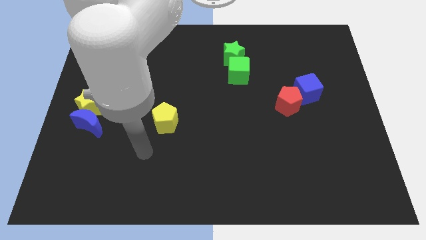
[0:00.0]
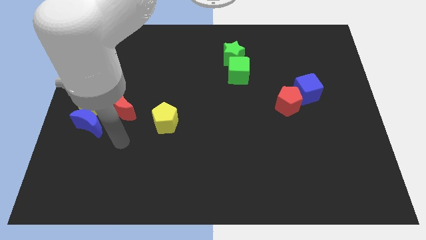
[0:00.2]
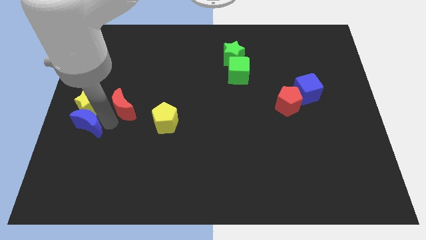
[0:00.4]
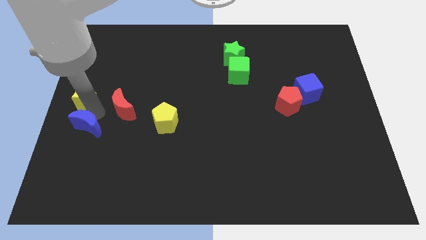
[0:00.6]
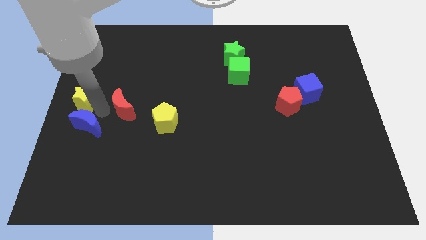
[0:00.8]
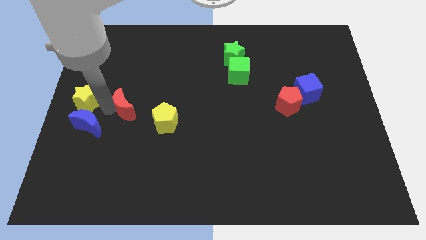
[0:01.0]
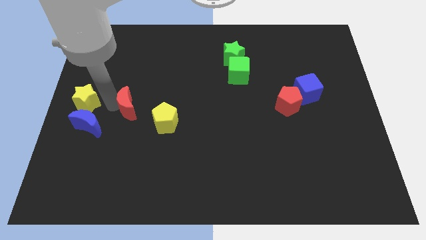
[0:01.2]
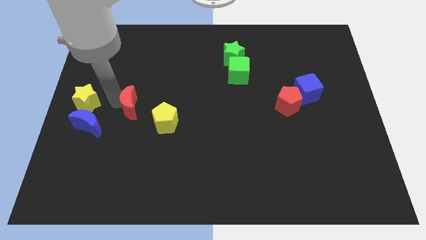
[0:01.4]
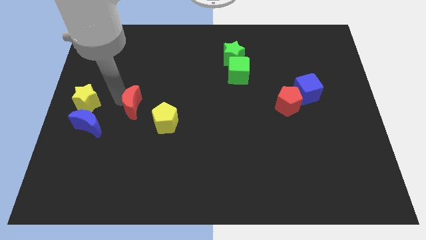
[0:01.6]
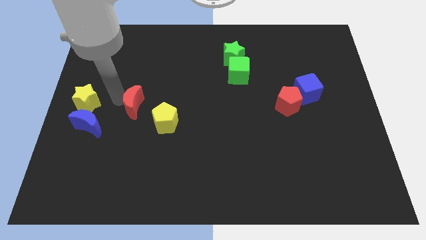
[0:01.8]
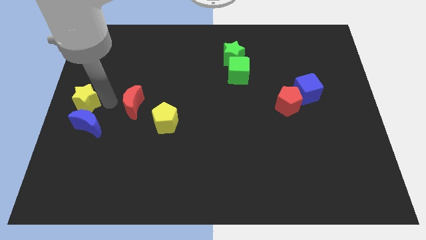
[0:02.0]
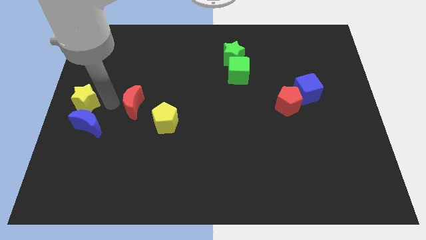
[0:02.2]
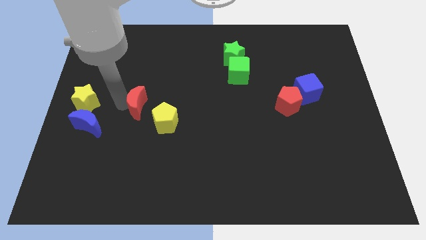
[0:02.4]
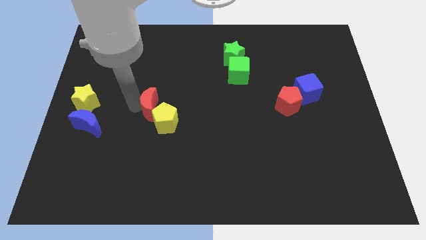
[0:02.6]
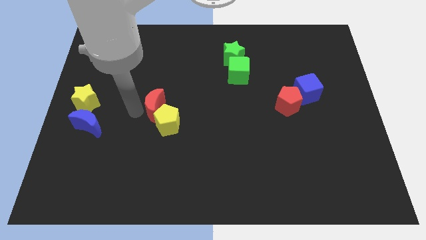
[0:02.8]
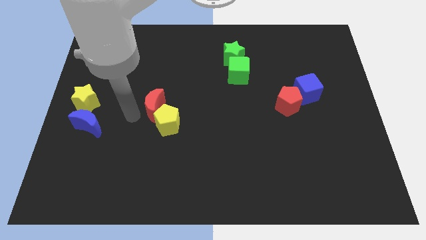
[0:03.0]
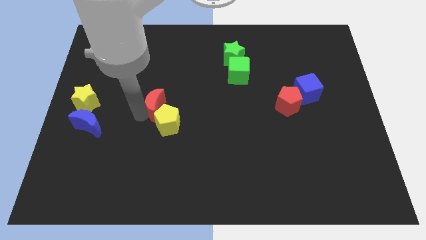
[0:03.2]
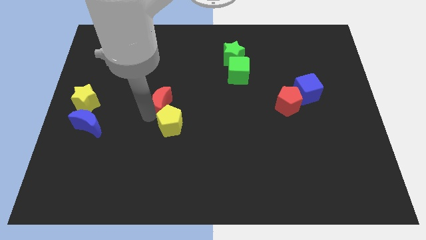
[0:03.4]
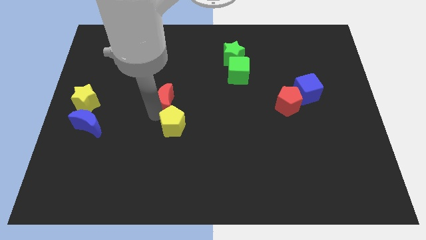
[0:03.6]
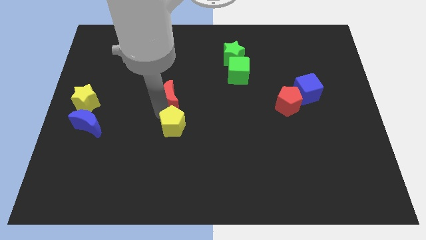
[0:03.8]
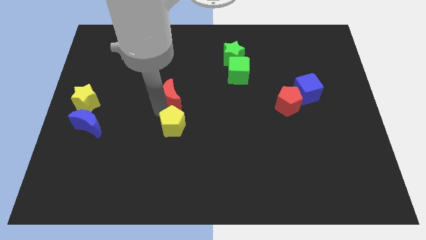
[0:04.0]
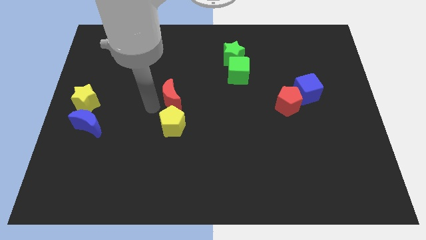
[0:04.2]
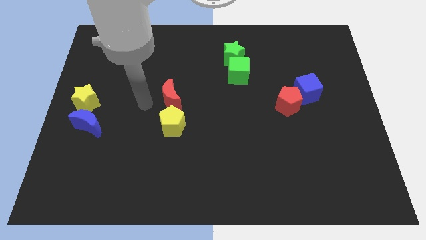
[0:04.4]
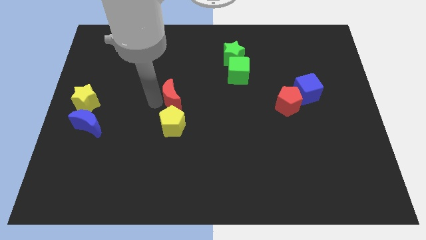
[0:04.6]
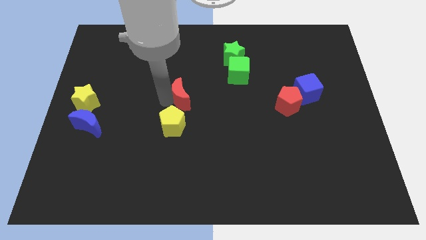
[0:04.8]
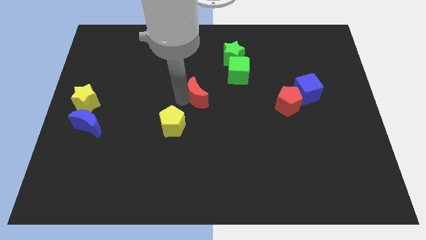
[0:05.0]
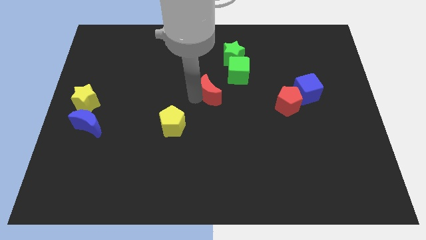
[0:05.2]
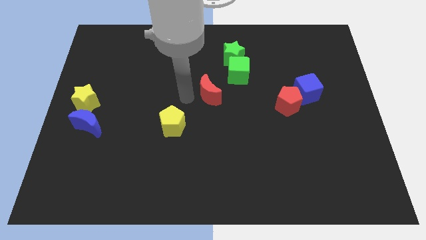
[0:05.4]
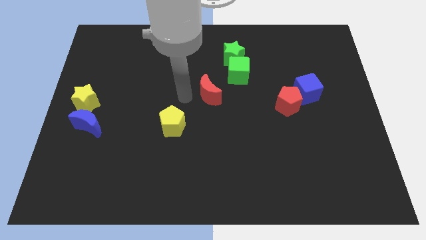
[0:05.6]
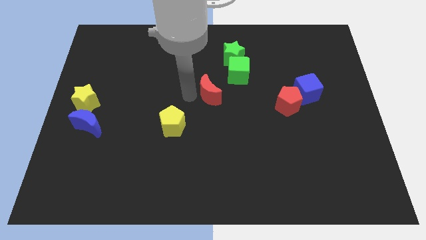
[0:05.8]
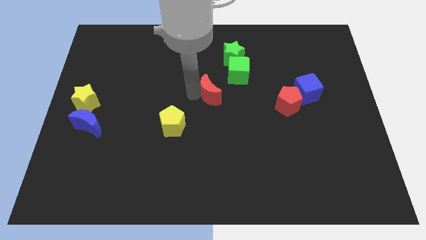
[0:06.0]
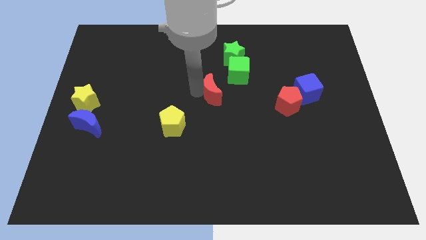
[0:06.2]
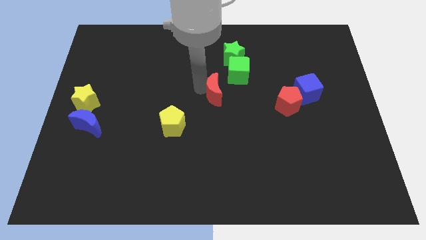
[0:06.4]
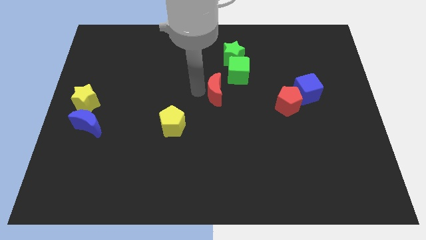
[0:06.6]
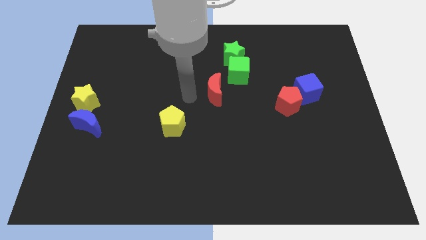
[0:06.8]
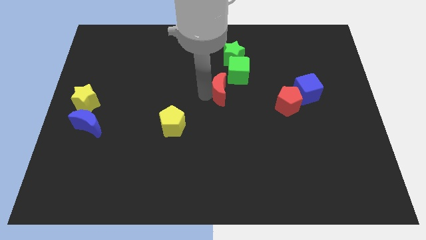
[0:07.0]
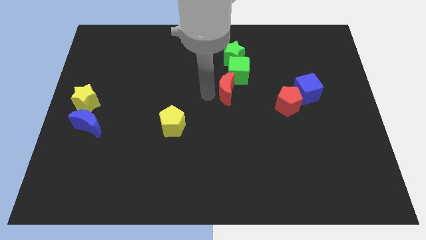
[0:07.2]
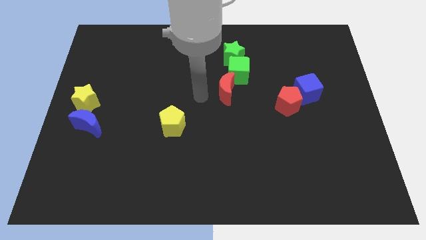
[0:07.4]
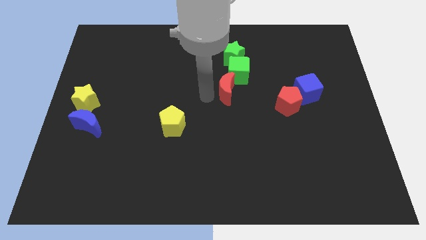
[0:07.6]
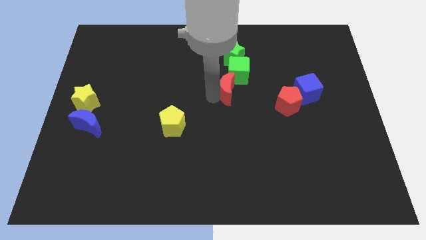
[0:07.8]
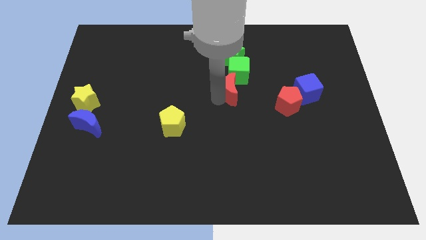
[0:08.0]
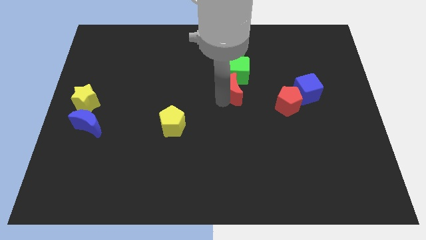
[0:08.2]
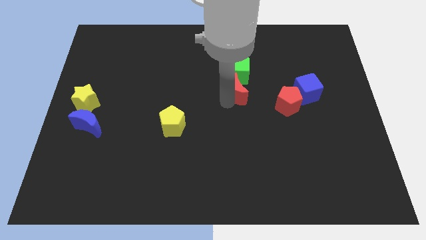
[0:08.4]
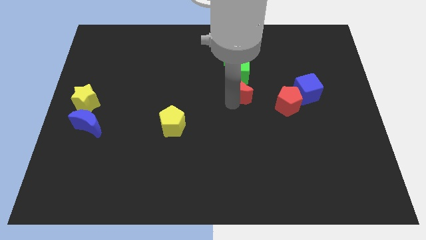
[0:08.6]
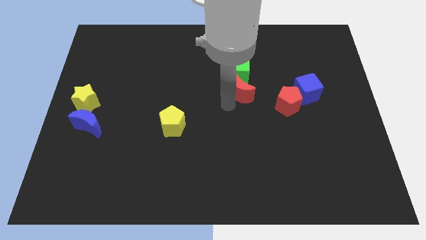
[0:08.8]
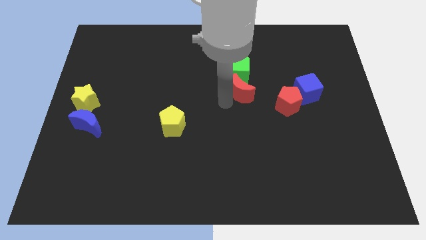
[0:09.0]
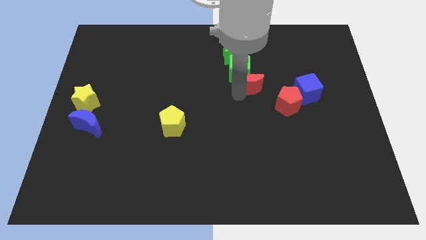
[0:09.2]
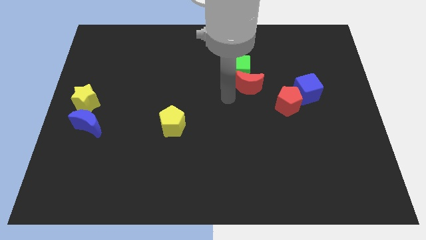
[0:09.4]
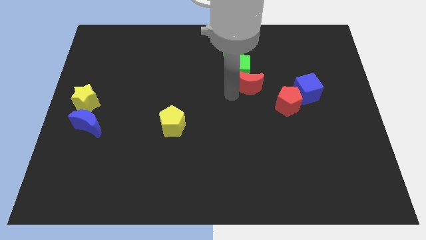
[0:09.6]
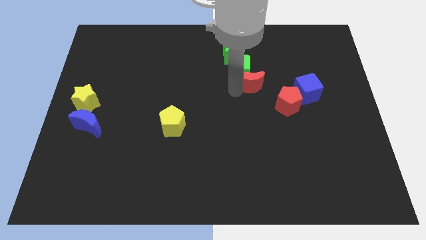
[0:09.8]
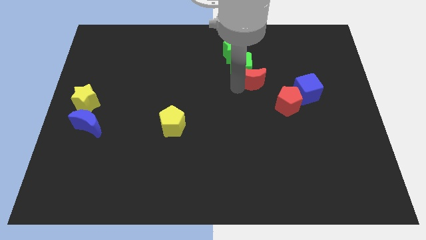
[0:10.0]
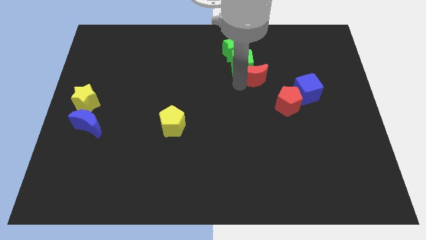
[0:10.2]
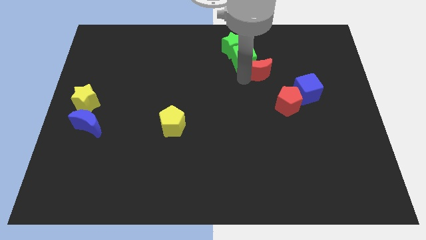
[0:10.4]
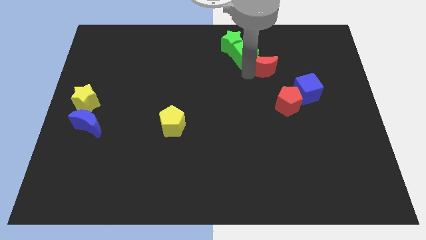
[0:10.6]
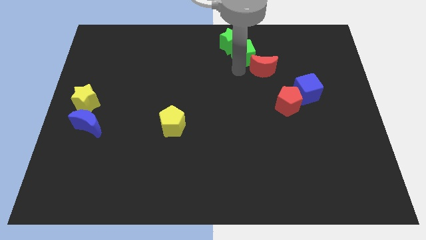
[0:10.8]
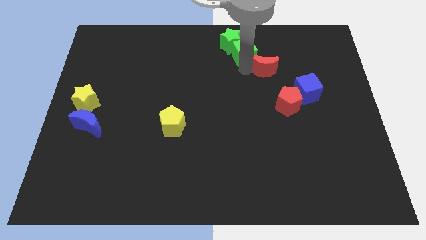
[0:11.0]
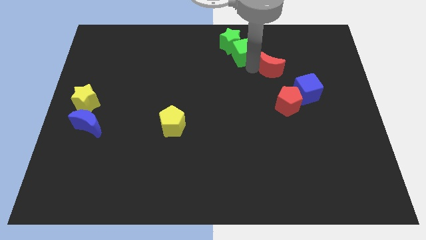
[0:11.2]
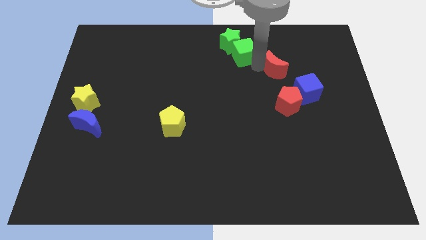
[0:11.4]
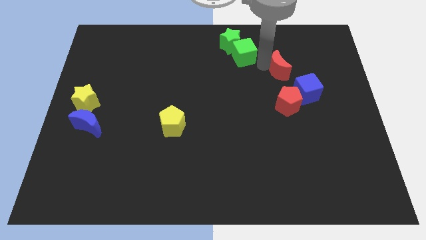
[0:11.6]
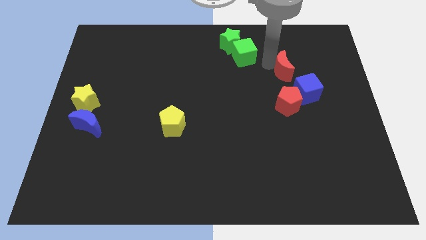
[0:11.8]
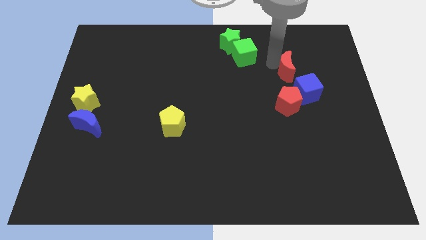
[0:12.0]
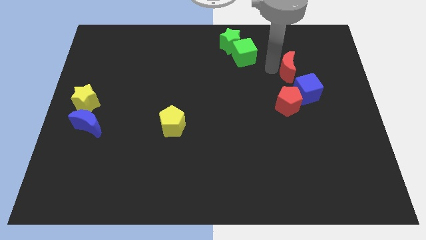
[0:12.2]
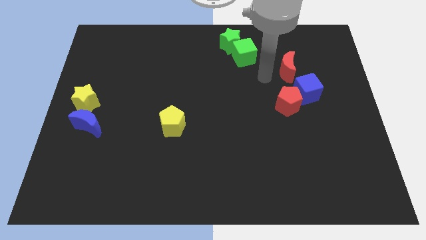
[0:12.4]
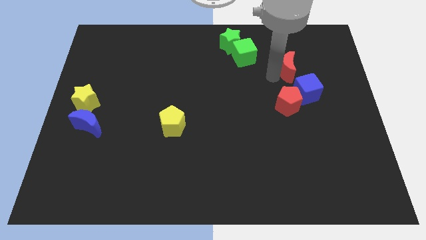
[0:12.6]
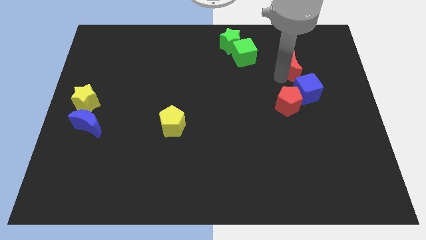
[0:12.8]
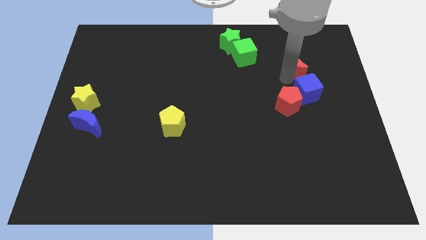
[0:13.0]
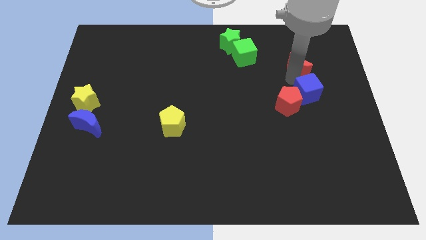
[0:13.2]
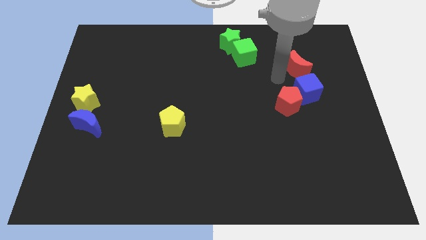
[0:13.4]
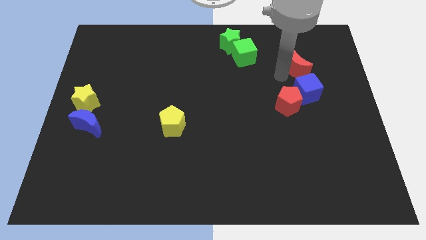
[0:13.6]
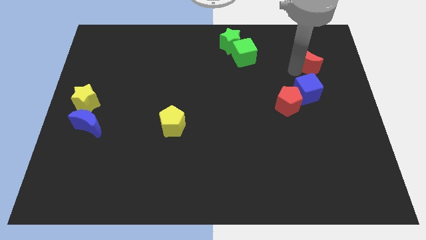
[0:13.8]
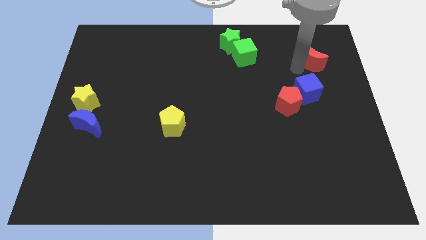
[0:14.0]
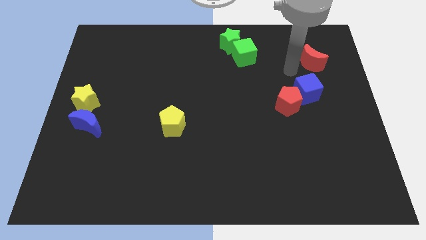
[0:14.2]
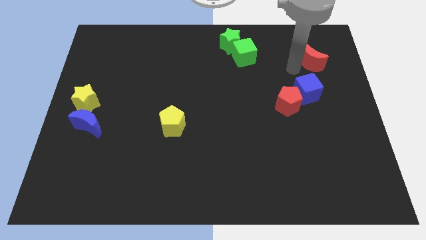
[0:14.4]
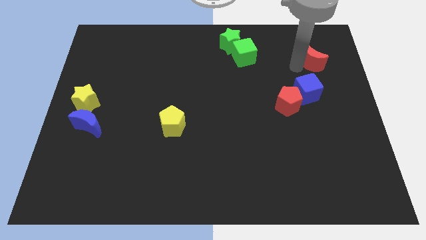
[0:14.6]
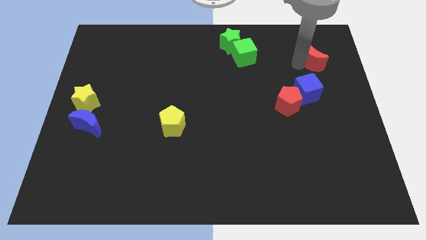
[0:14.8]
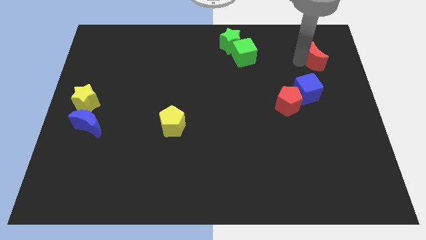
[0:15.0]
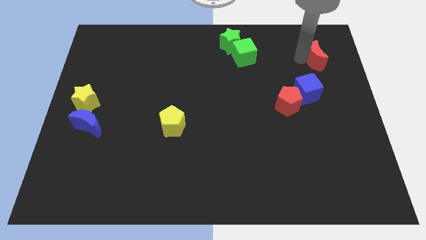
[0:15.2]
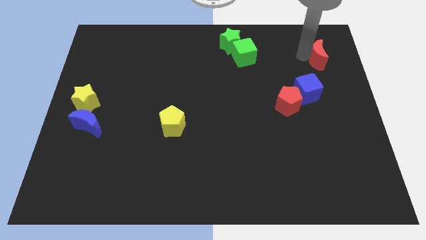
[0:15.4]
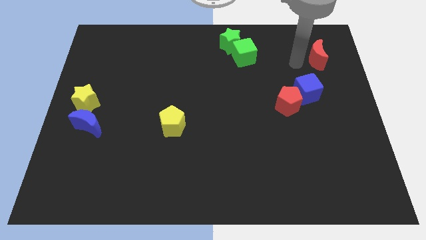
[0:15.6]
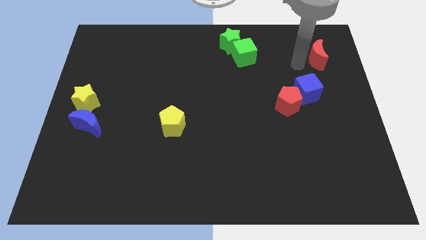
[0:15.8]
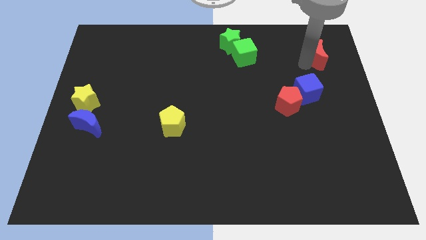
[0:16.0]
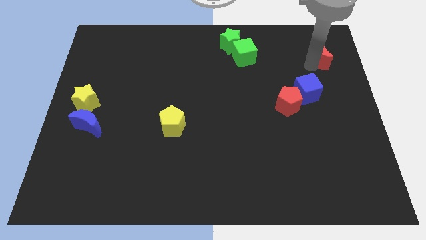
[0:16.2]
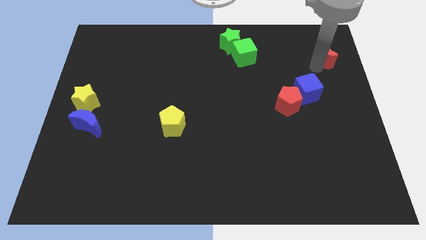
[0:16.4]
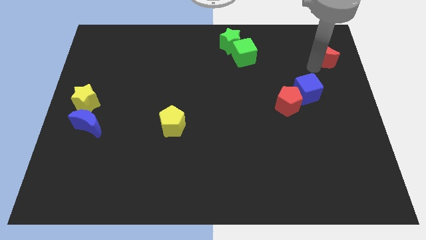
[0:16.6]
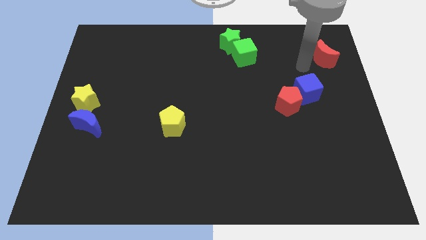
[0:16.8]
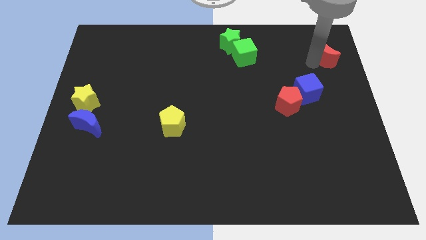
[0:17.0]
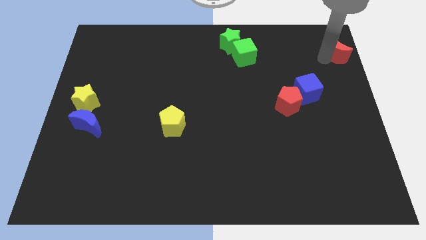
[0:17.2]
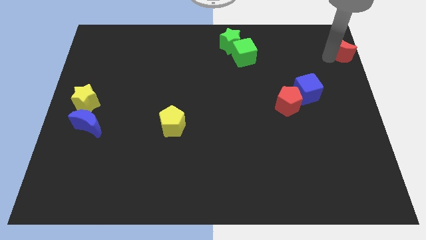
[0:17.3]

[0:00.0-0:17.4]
put the red moon to the top right
